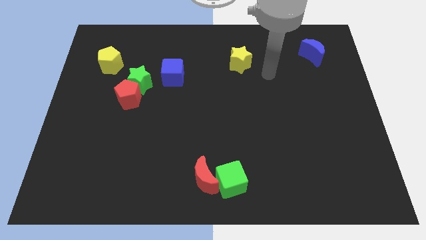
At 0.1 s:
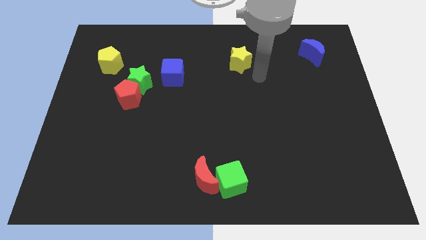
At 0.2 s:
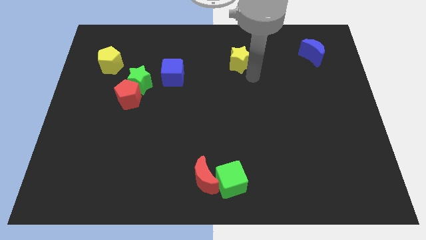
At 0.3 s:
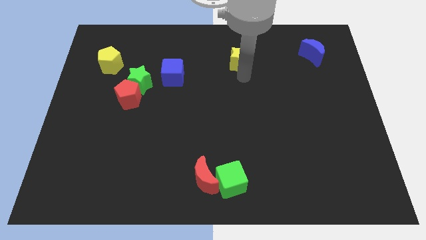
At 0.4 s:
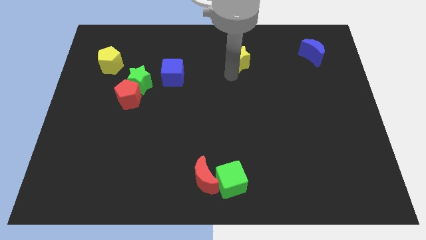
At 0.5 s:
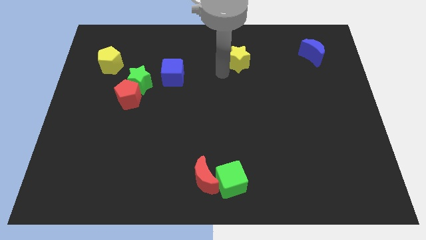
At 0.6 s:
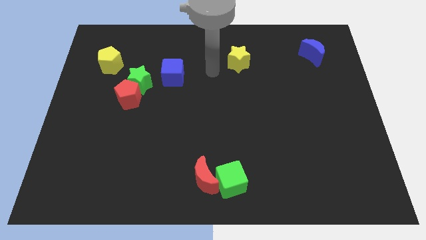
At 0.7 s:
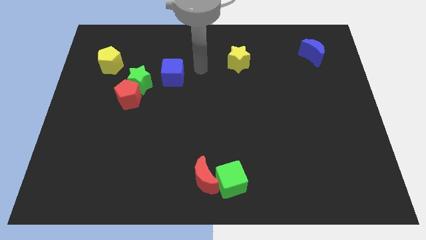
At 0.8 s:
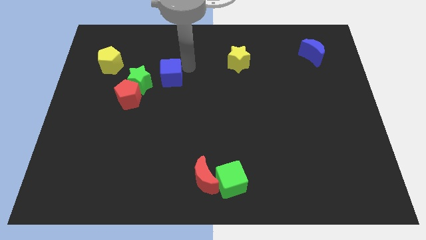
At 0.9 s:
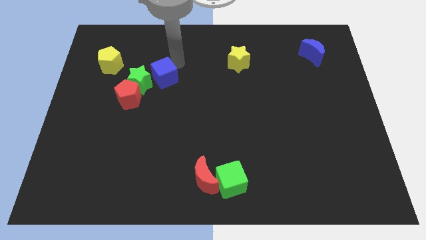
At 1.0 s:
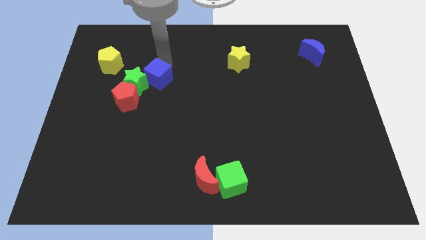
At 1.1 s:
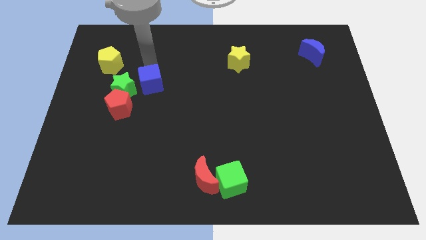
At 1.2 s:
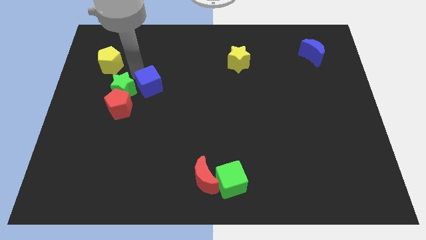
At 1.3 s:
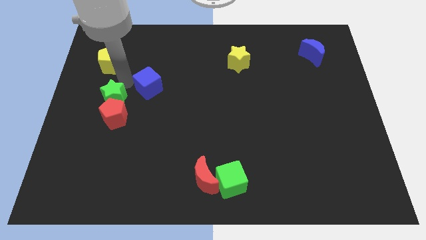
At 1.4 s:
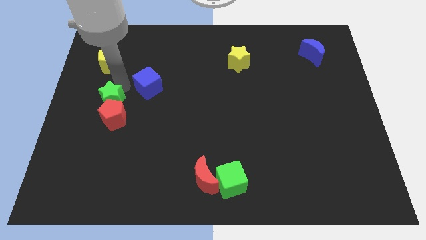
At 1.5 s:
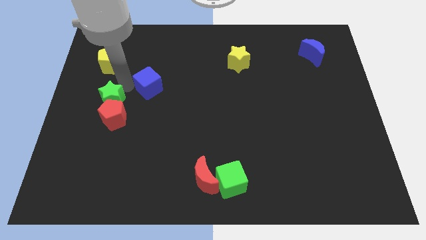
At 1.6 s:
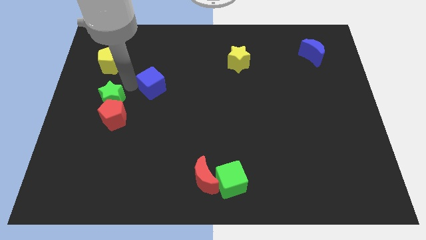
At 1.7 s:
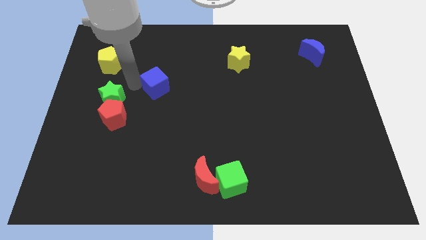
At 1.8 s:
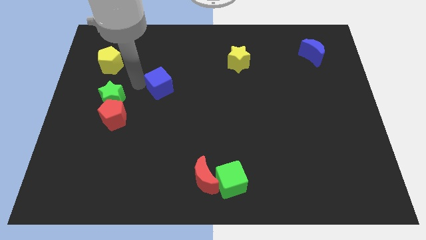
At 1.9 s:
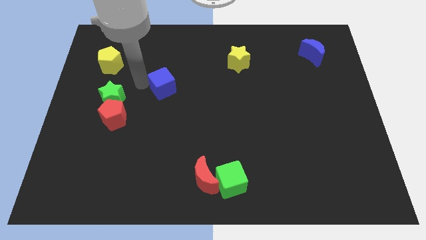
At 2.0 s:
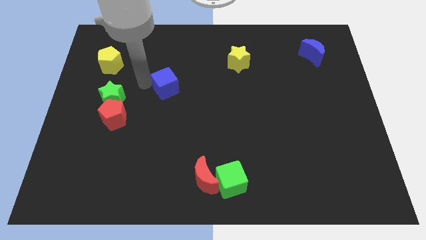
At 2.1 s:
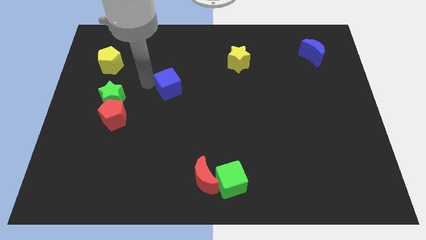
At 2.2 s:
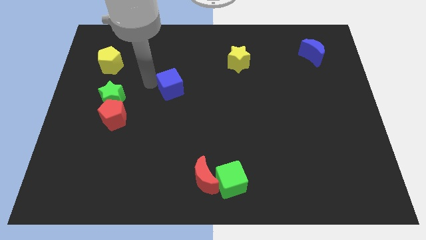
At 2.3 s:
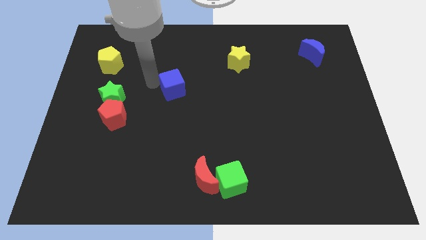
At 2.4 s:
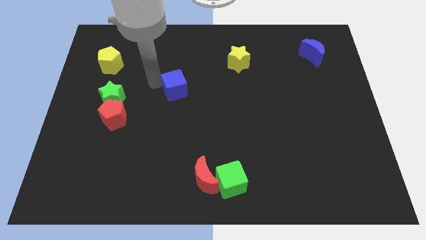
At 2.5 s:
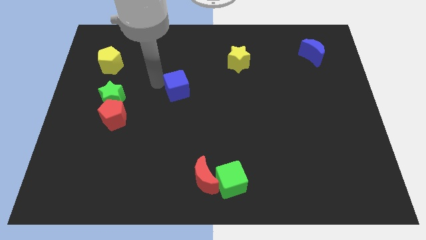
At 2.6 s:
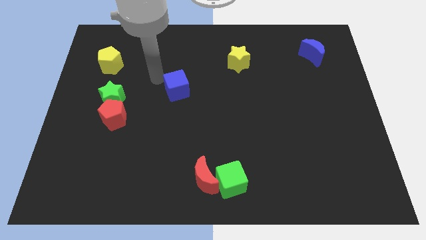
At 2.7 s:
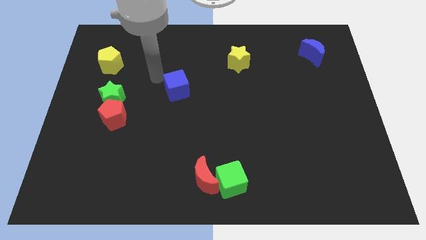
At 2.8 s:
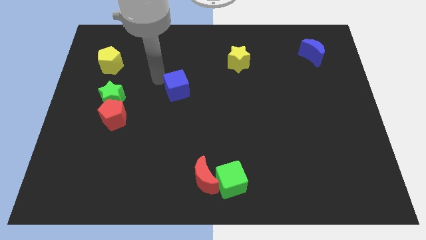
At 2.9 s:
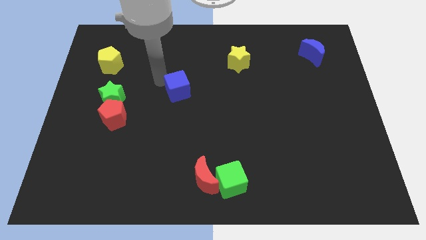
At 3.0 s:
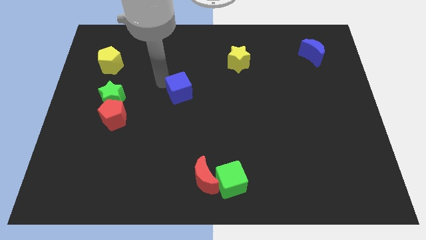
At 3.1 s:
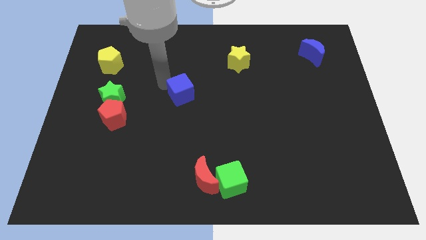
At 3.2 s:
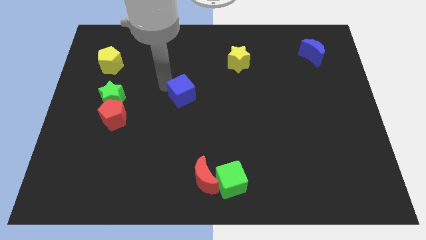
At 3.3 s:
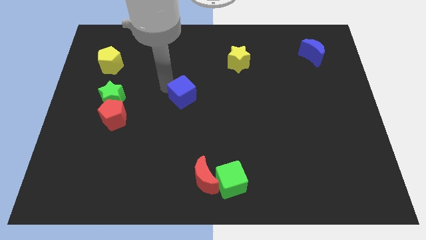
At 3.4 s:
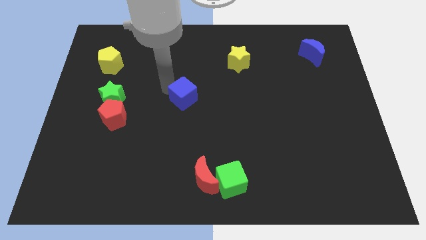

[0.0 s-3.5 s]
slide the blue cube diagonally down and to the right a bit

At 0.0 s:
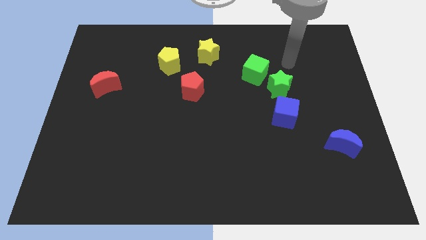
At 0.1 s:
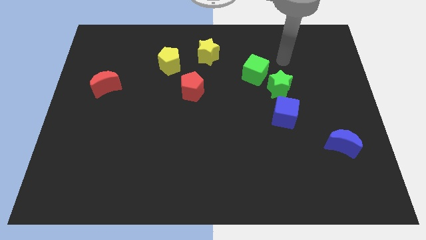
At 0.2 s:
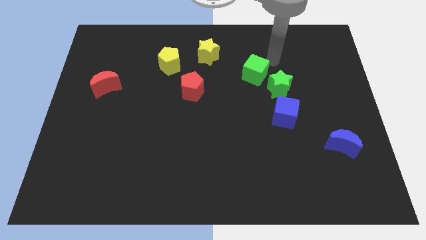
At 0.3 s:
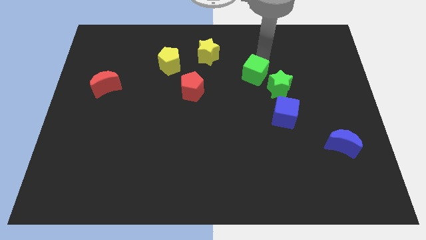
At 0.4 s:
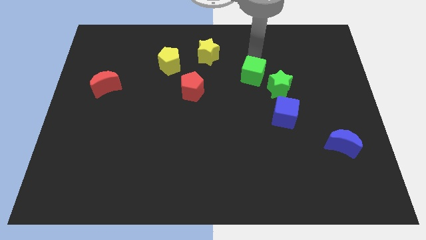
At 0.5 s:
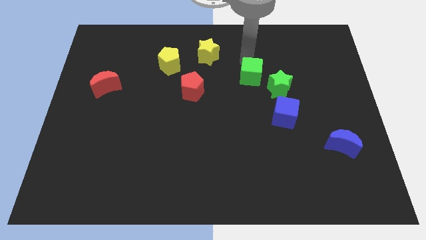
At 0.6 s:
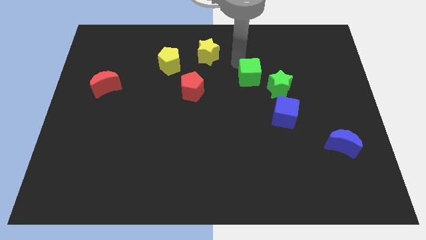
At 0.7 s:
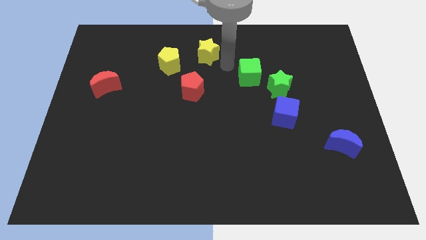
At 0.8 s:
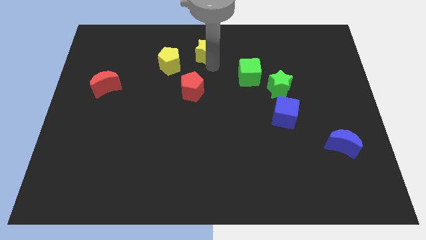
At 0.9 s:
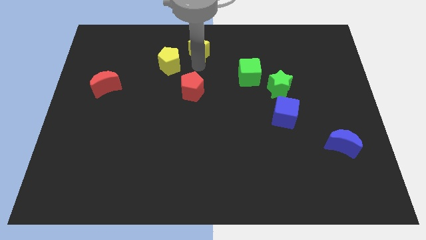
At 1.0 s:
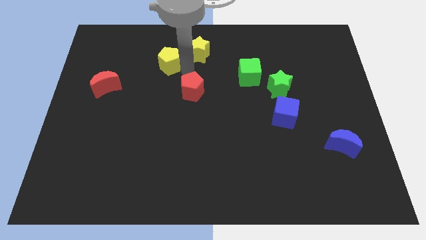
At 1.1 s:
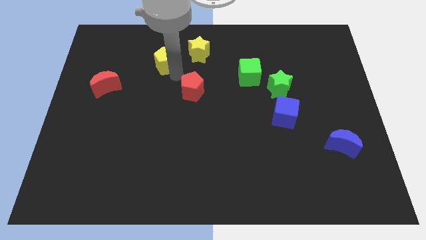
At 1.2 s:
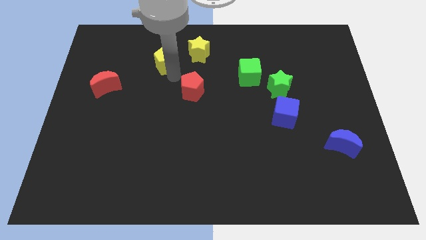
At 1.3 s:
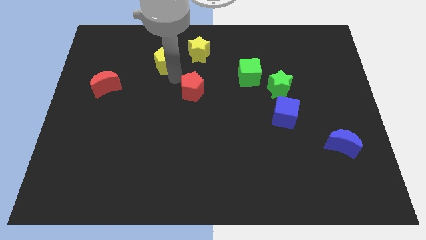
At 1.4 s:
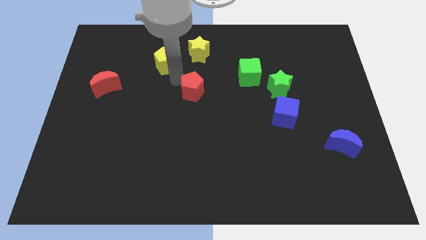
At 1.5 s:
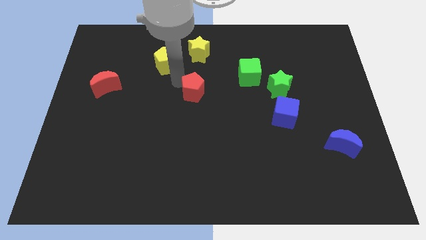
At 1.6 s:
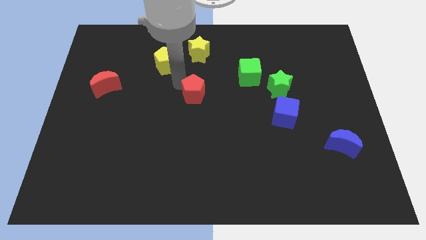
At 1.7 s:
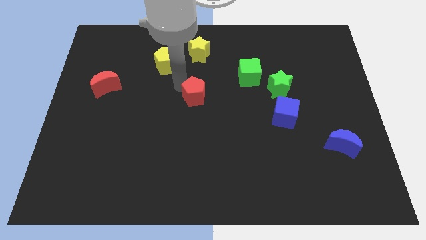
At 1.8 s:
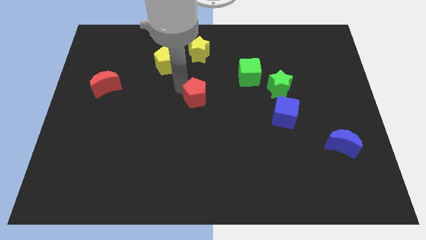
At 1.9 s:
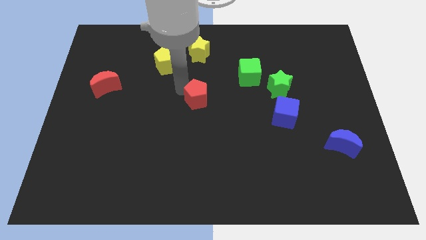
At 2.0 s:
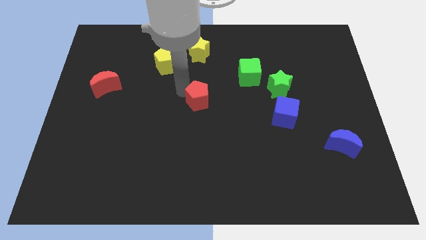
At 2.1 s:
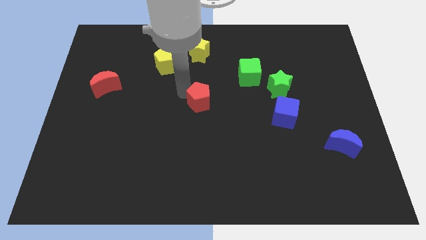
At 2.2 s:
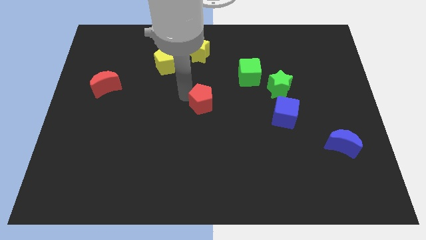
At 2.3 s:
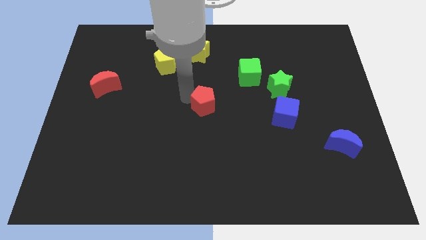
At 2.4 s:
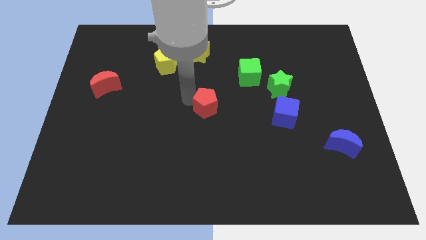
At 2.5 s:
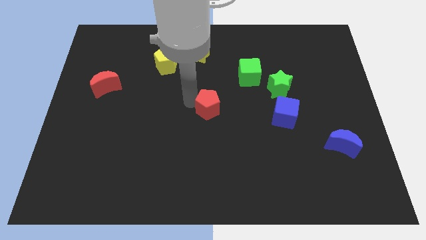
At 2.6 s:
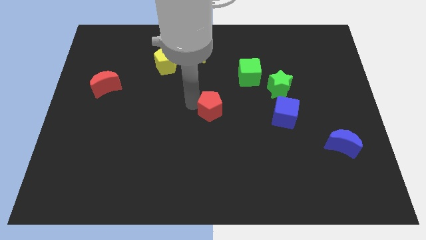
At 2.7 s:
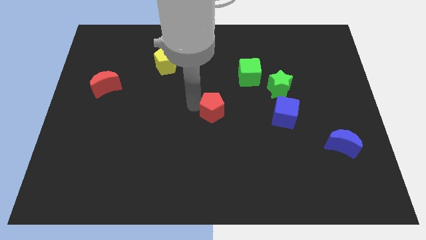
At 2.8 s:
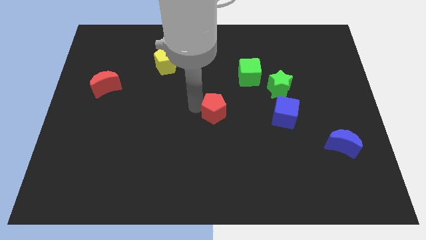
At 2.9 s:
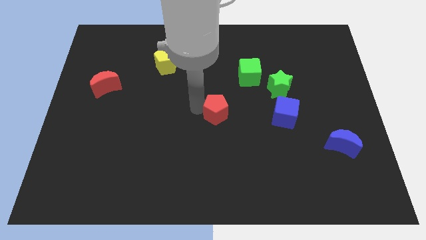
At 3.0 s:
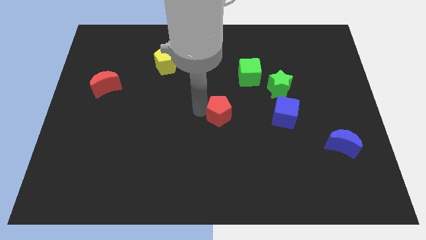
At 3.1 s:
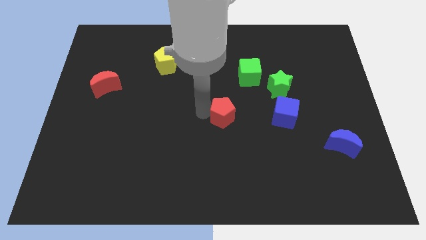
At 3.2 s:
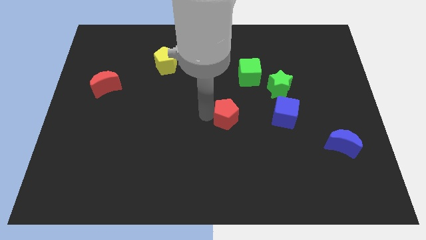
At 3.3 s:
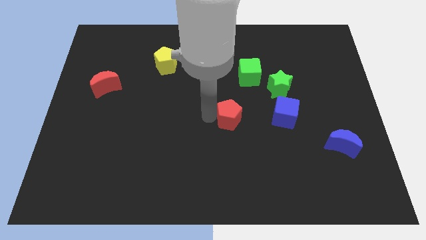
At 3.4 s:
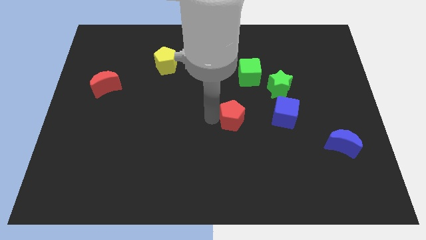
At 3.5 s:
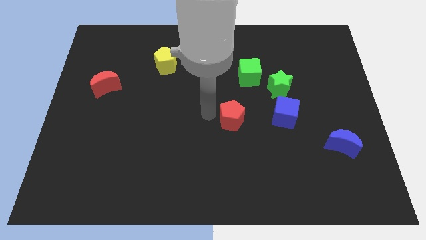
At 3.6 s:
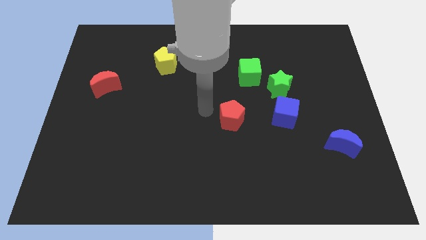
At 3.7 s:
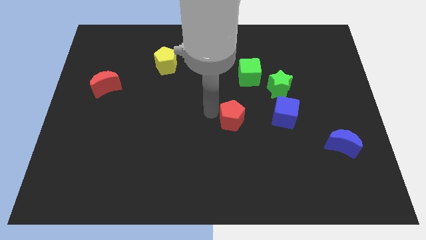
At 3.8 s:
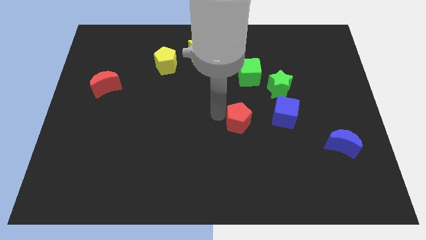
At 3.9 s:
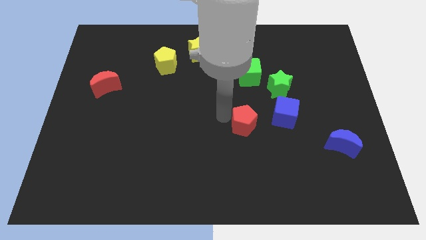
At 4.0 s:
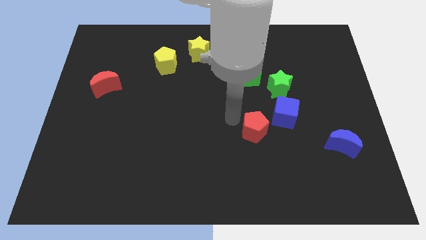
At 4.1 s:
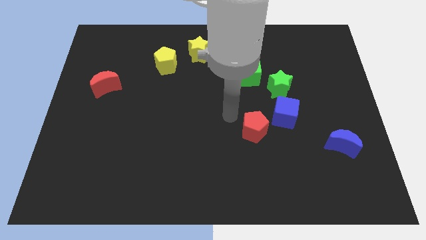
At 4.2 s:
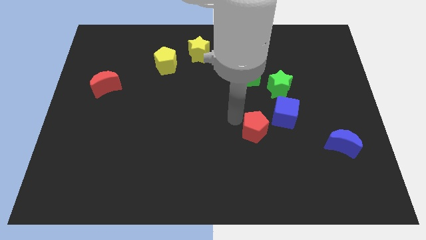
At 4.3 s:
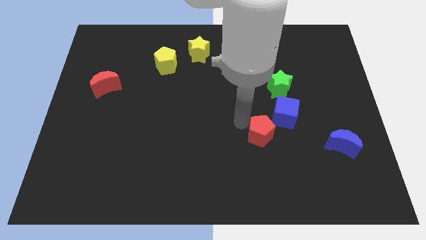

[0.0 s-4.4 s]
slide the red pentagon downwards and then to the right

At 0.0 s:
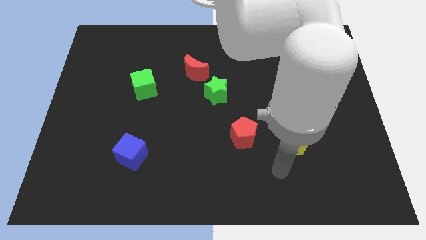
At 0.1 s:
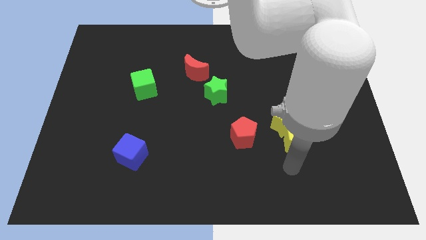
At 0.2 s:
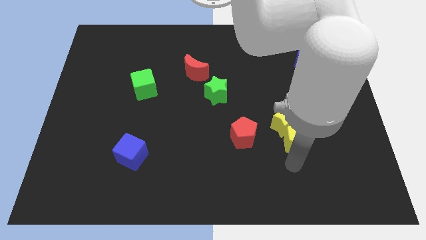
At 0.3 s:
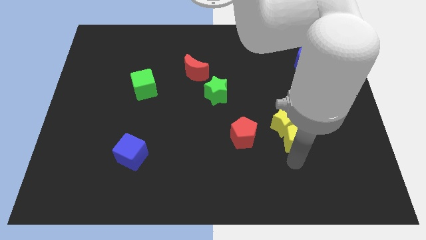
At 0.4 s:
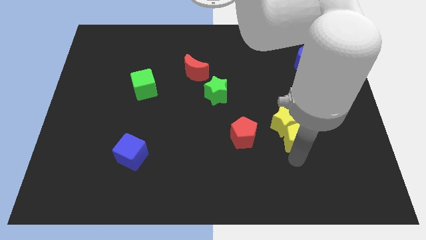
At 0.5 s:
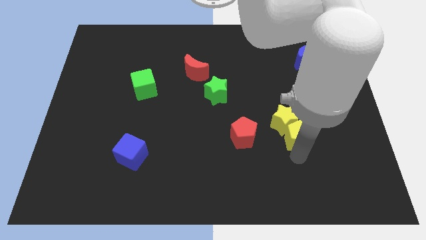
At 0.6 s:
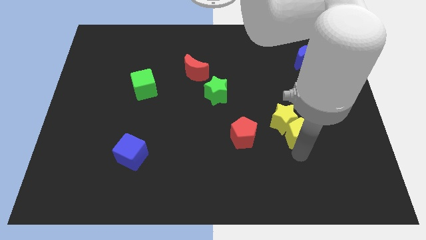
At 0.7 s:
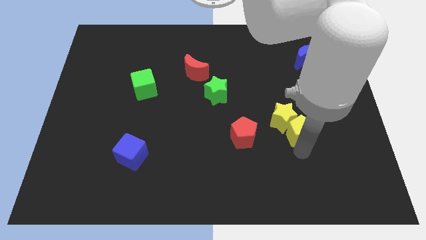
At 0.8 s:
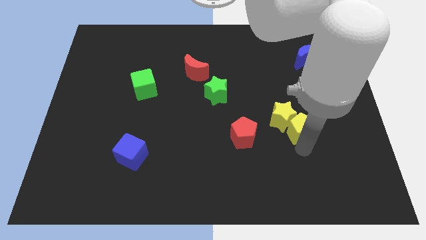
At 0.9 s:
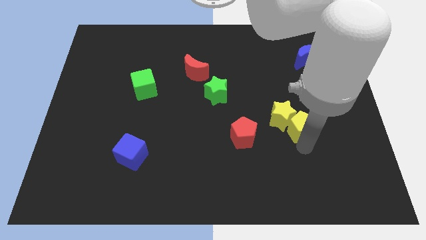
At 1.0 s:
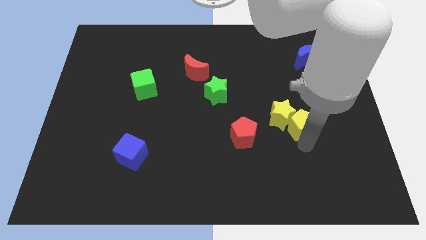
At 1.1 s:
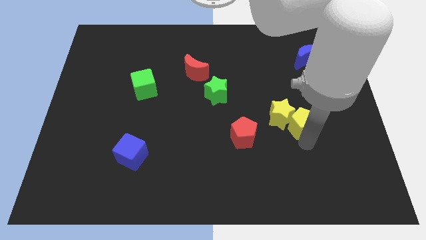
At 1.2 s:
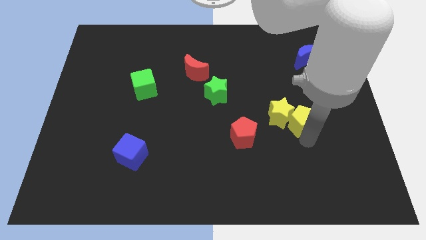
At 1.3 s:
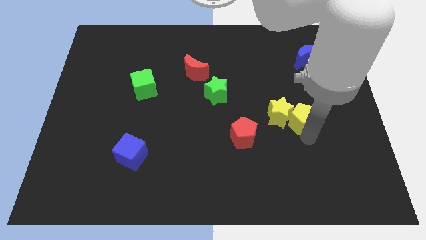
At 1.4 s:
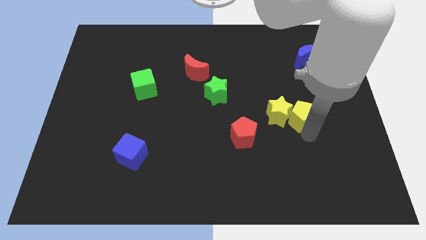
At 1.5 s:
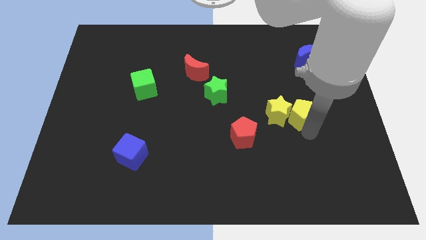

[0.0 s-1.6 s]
slide the yellow pentagon a little bit up
